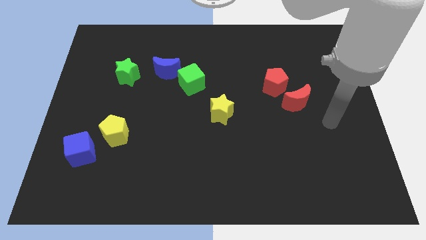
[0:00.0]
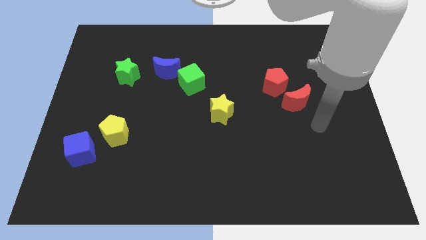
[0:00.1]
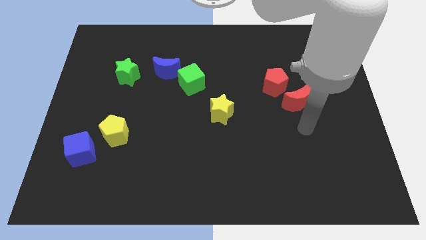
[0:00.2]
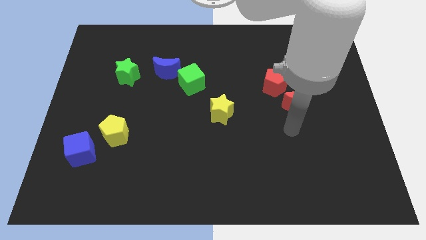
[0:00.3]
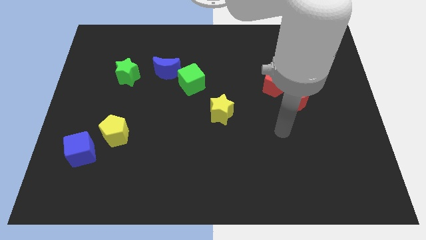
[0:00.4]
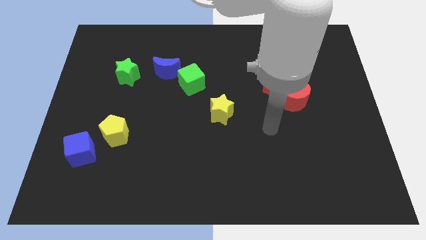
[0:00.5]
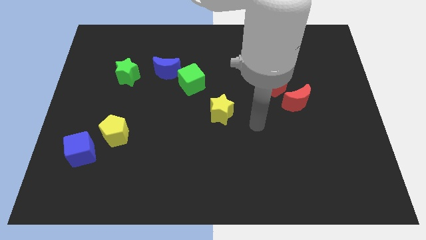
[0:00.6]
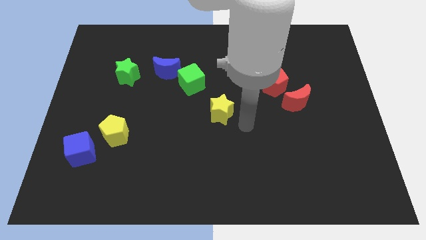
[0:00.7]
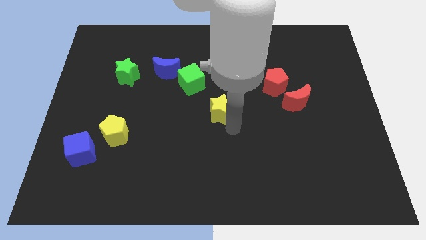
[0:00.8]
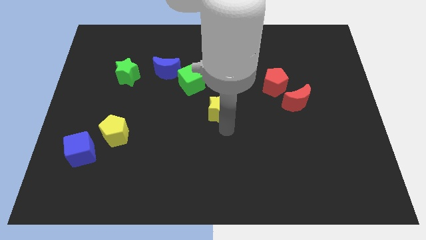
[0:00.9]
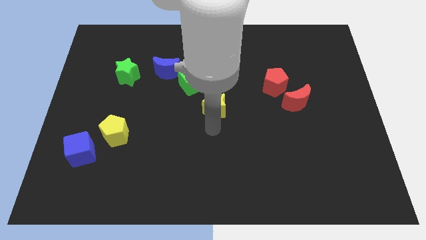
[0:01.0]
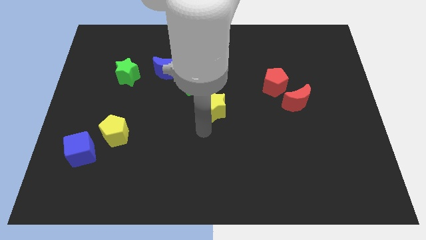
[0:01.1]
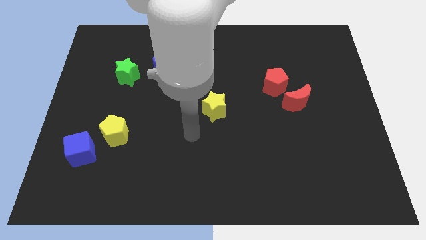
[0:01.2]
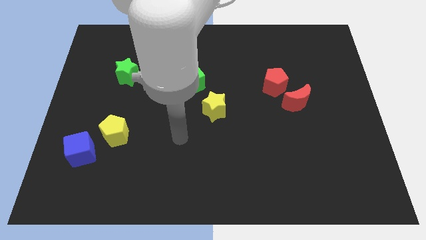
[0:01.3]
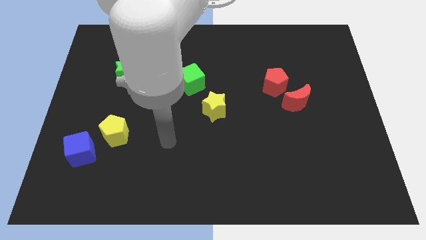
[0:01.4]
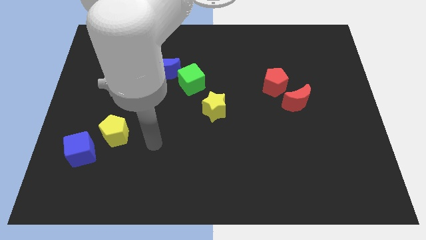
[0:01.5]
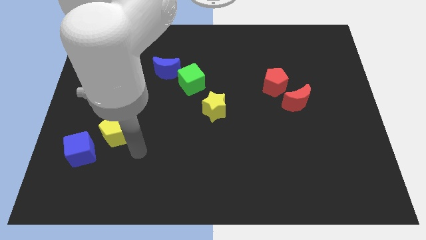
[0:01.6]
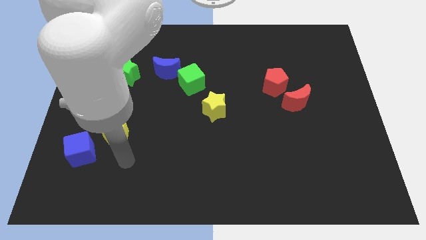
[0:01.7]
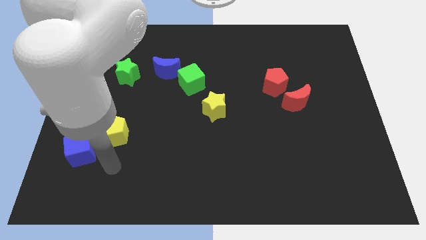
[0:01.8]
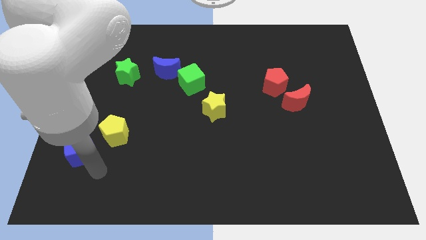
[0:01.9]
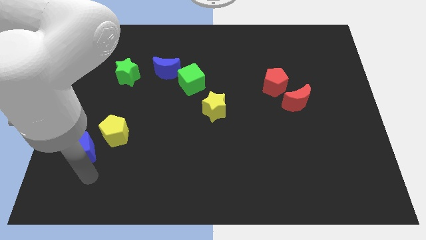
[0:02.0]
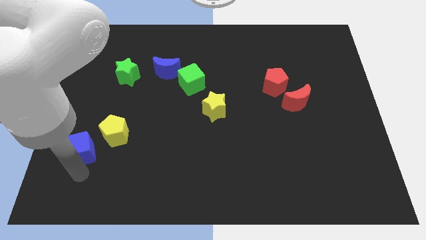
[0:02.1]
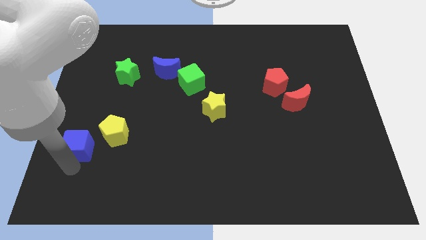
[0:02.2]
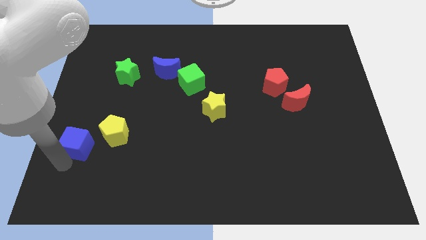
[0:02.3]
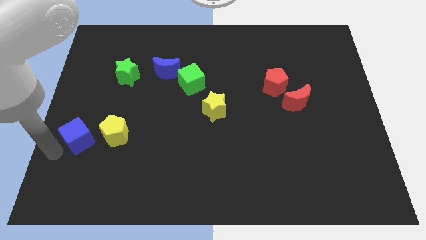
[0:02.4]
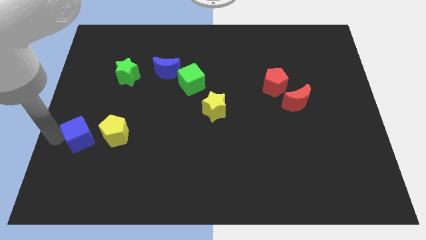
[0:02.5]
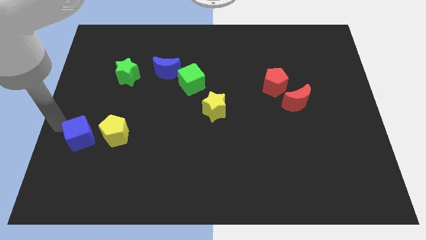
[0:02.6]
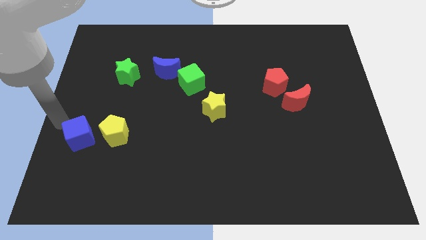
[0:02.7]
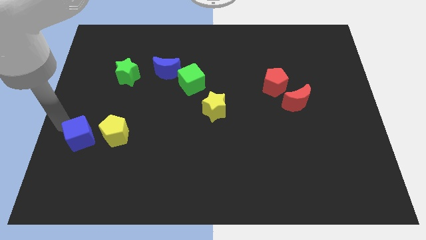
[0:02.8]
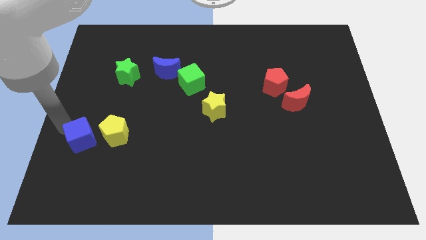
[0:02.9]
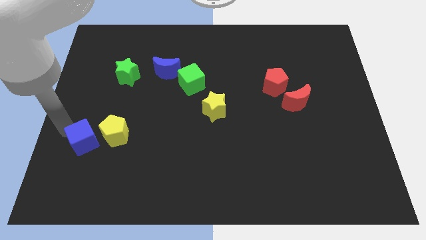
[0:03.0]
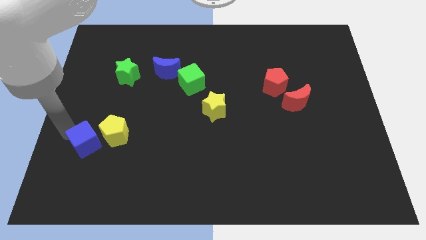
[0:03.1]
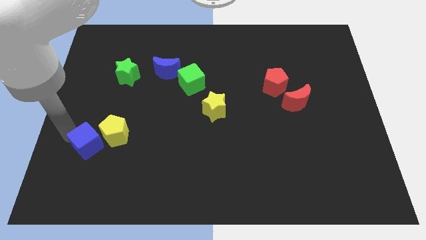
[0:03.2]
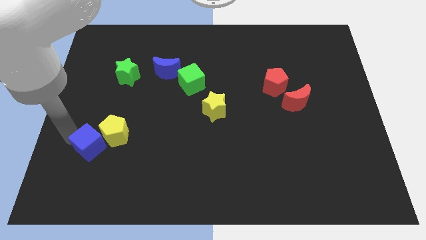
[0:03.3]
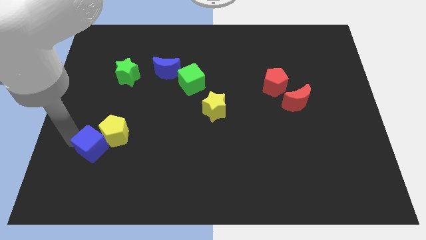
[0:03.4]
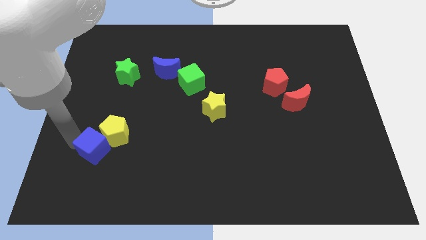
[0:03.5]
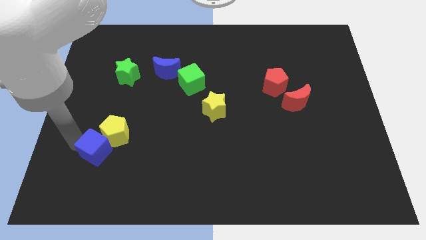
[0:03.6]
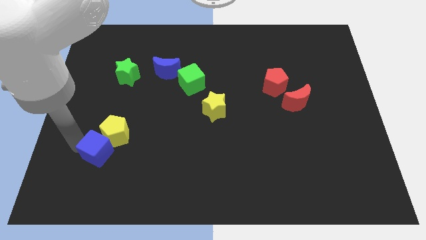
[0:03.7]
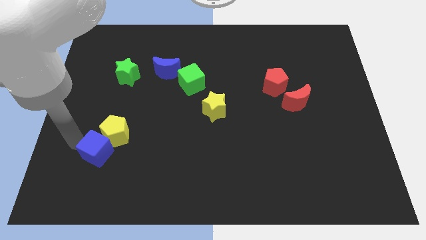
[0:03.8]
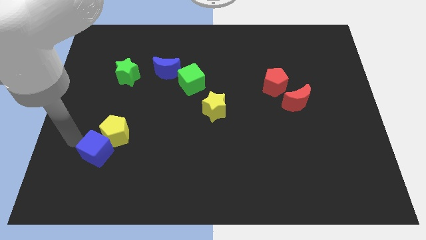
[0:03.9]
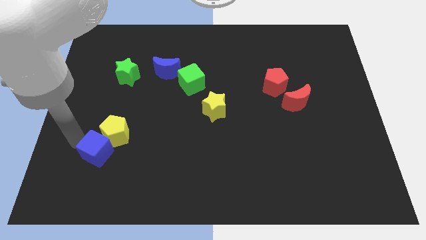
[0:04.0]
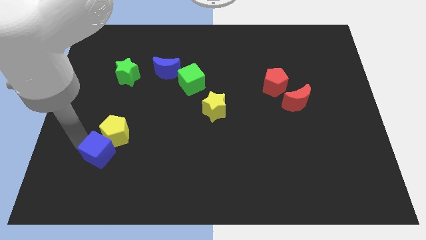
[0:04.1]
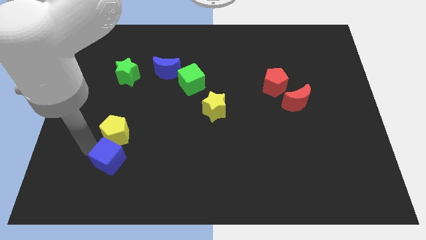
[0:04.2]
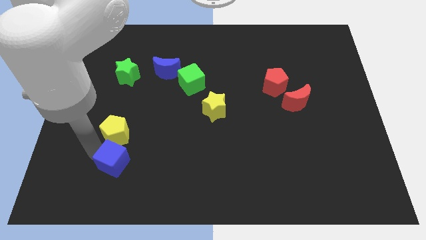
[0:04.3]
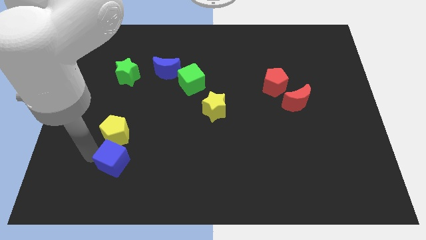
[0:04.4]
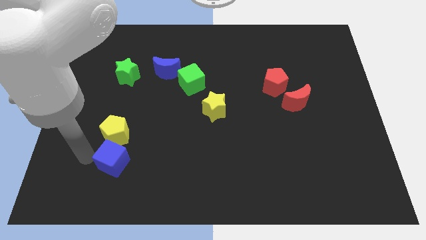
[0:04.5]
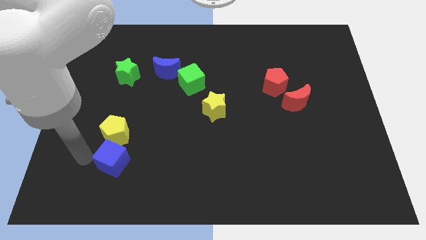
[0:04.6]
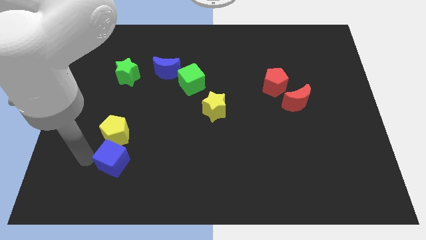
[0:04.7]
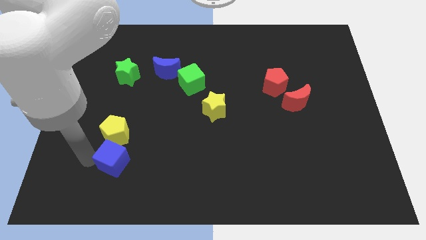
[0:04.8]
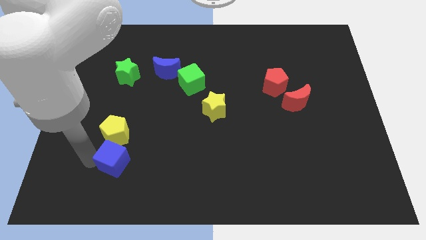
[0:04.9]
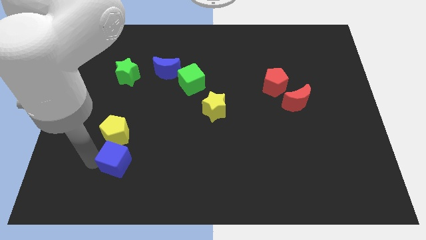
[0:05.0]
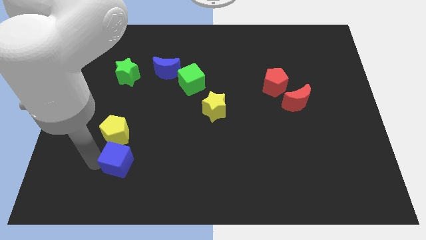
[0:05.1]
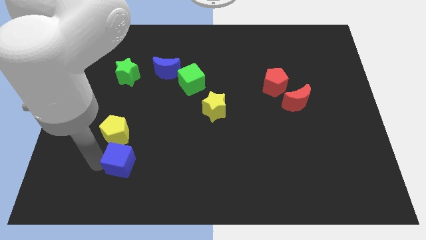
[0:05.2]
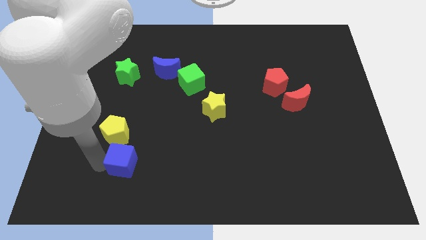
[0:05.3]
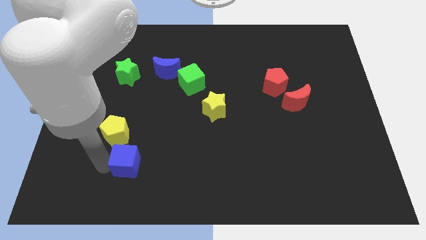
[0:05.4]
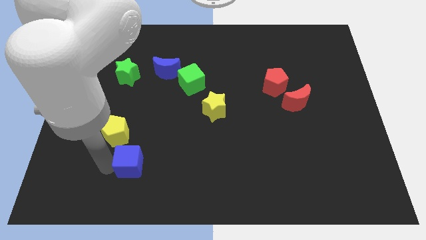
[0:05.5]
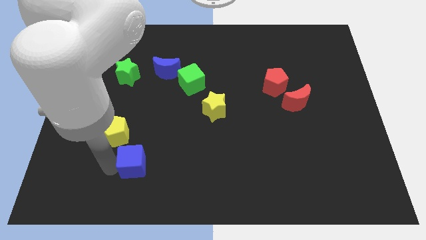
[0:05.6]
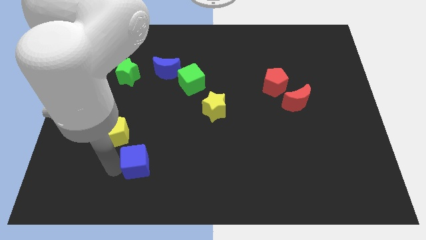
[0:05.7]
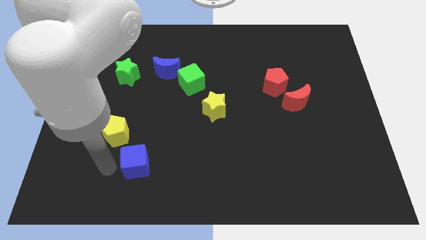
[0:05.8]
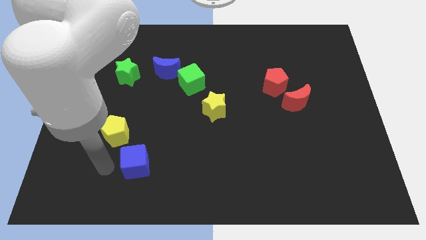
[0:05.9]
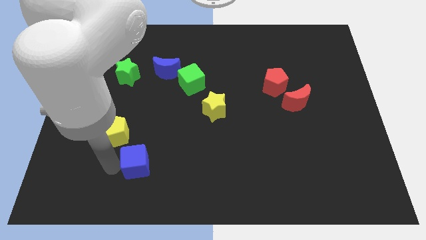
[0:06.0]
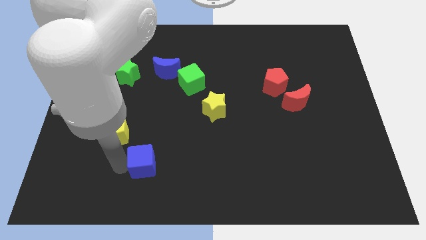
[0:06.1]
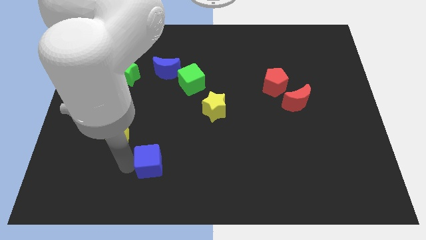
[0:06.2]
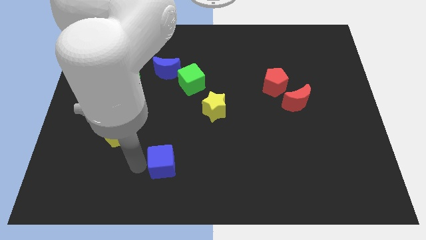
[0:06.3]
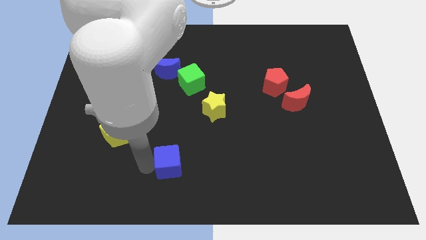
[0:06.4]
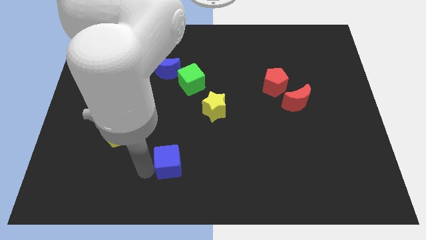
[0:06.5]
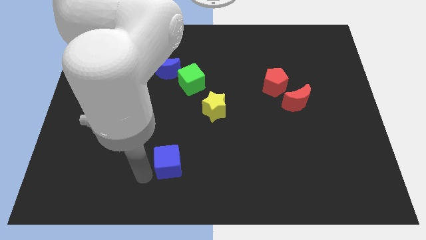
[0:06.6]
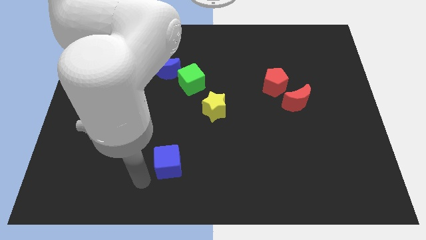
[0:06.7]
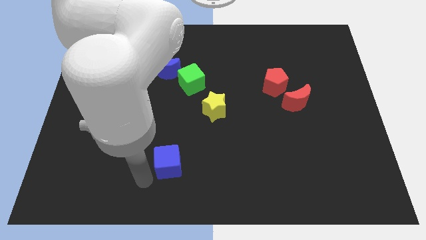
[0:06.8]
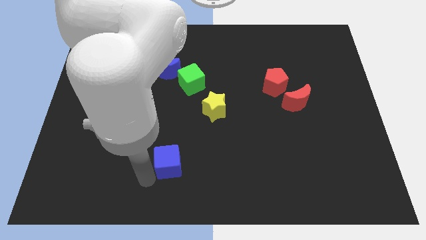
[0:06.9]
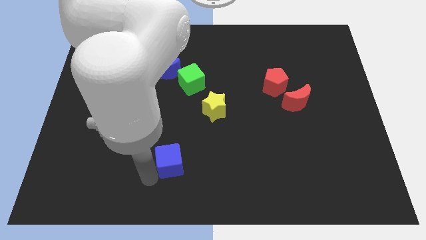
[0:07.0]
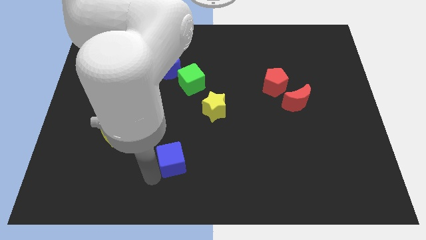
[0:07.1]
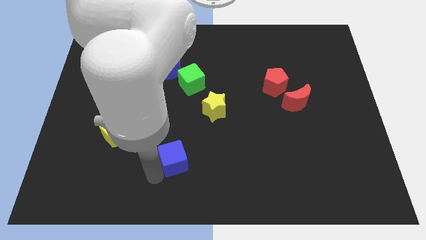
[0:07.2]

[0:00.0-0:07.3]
move the blue cube right

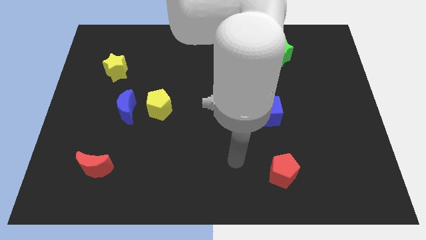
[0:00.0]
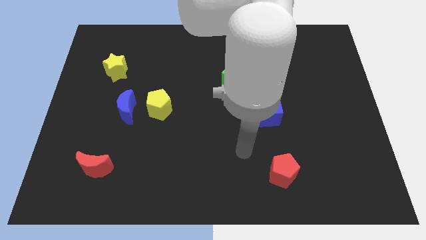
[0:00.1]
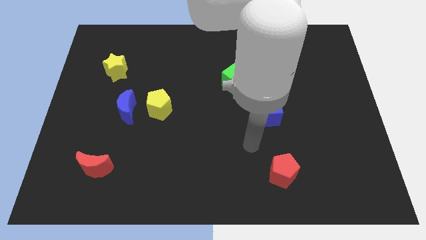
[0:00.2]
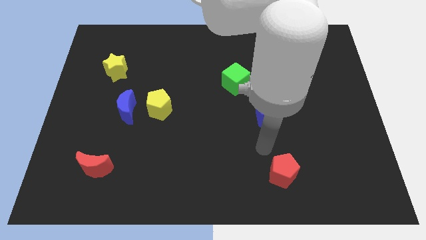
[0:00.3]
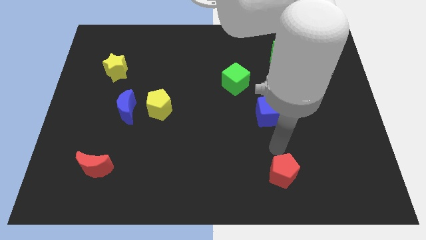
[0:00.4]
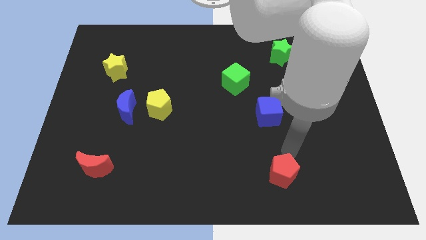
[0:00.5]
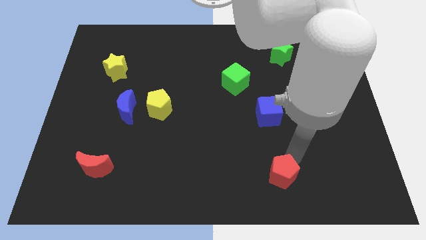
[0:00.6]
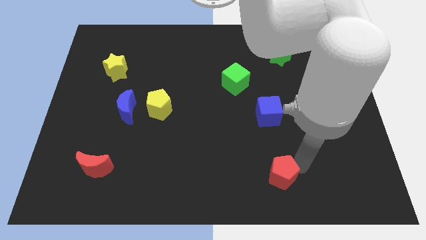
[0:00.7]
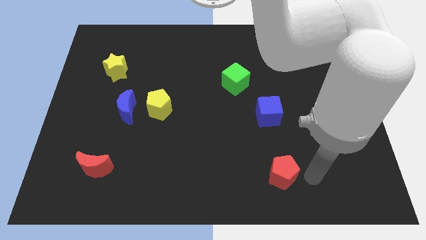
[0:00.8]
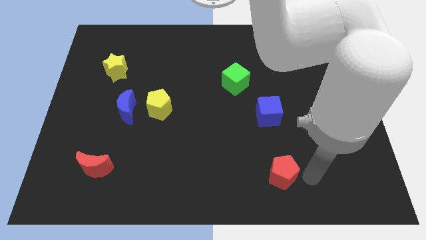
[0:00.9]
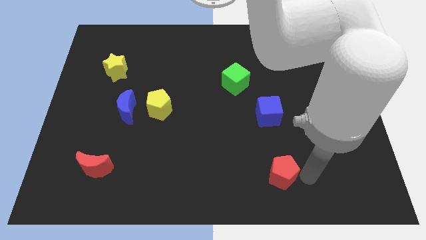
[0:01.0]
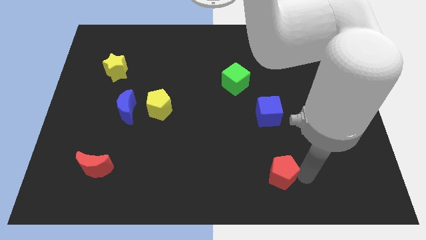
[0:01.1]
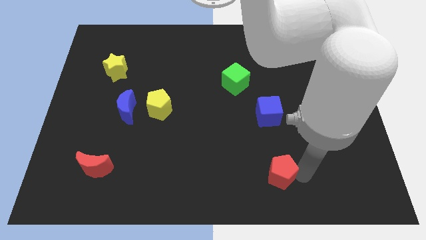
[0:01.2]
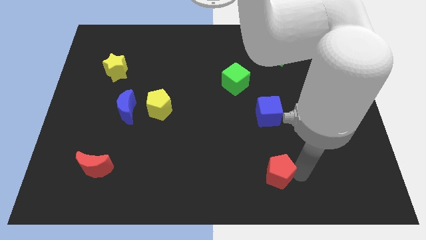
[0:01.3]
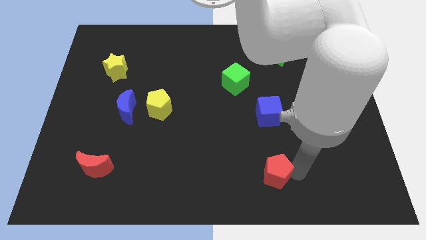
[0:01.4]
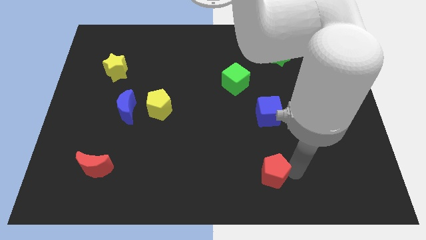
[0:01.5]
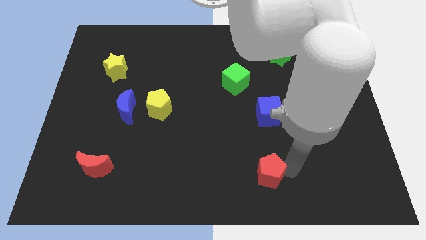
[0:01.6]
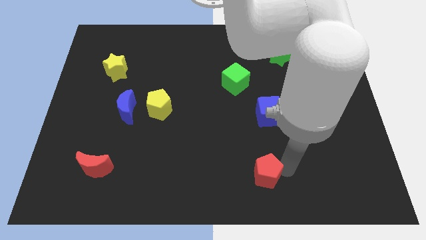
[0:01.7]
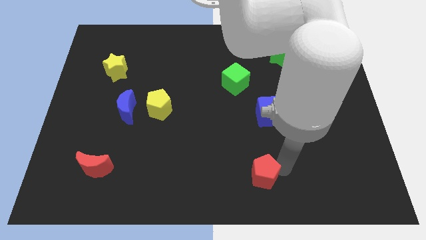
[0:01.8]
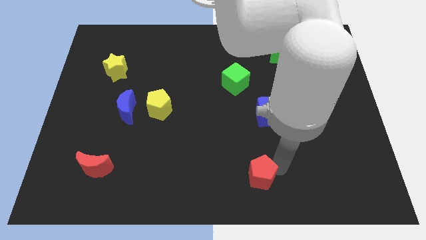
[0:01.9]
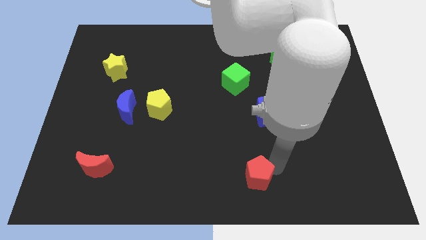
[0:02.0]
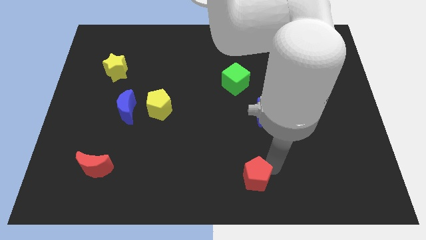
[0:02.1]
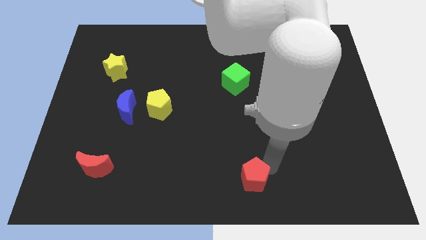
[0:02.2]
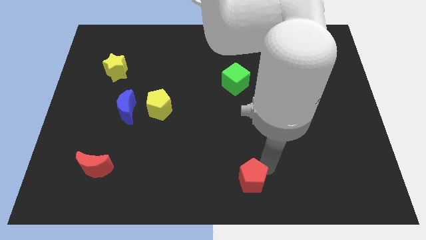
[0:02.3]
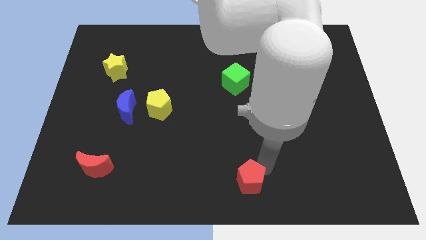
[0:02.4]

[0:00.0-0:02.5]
move the red pentagon somewhat to the left
